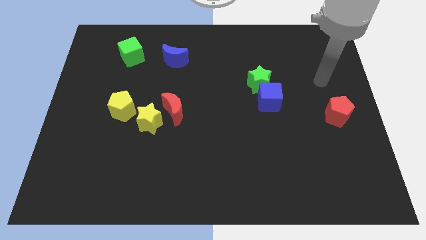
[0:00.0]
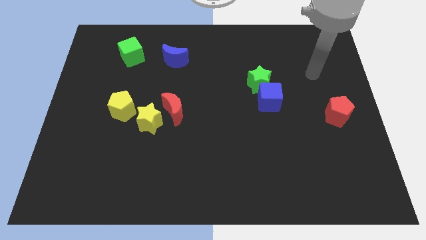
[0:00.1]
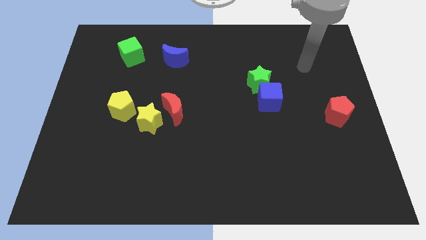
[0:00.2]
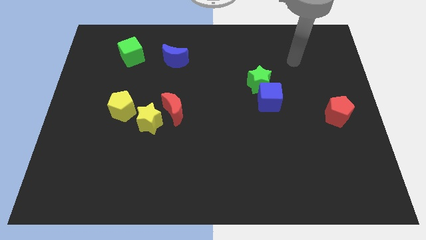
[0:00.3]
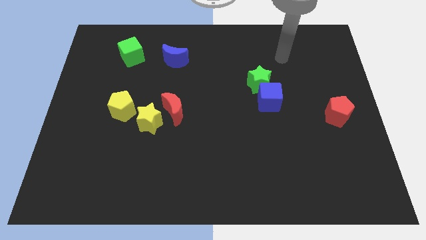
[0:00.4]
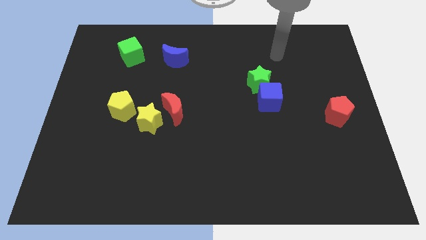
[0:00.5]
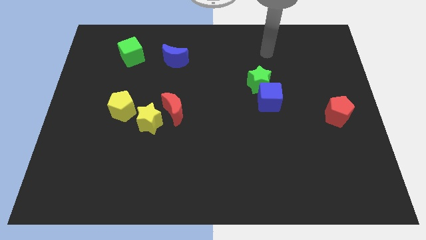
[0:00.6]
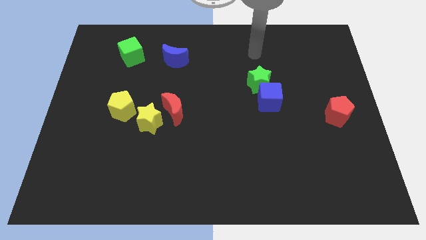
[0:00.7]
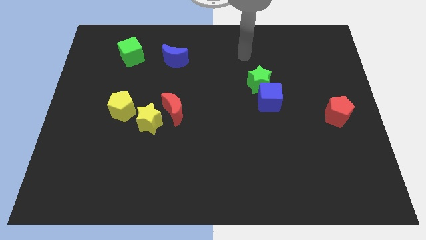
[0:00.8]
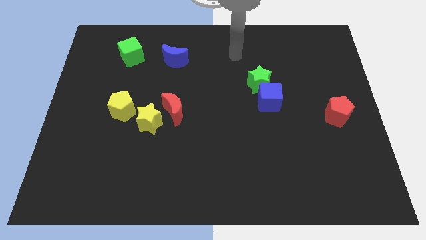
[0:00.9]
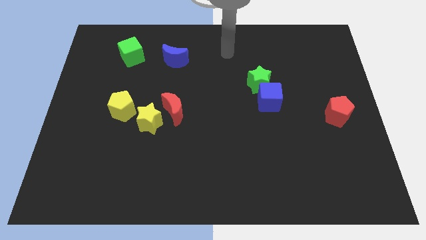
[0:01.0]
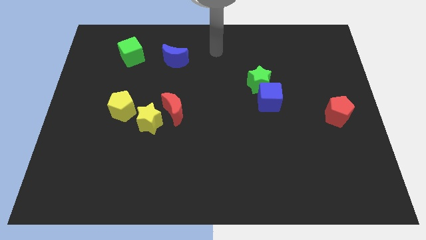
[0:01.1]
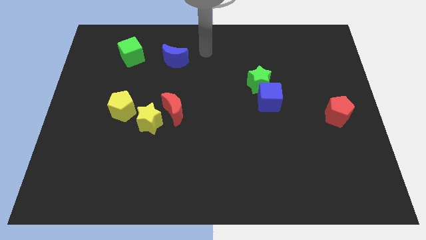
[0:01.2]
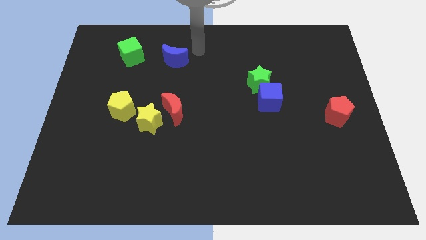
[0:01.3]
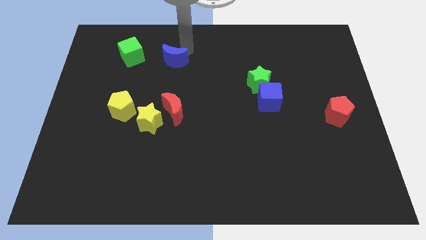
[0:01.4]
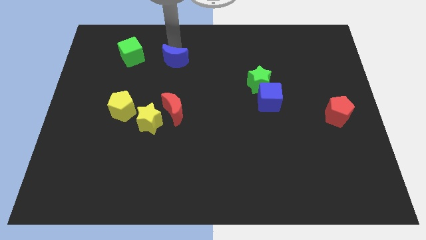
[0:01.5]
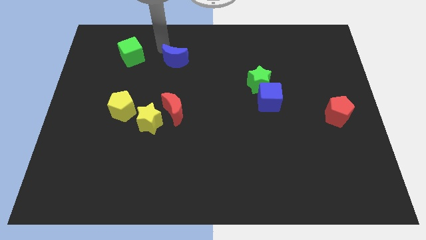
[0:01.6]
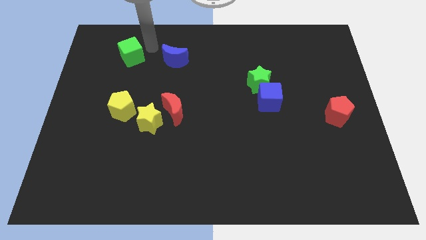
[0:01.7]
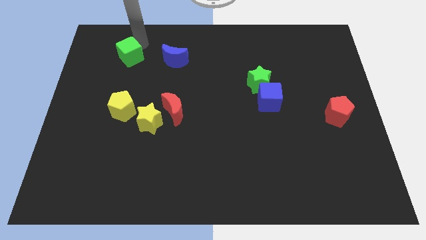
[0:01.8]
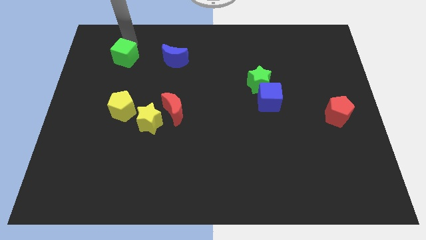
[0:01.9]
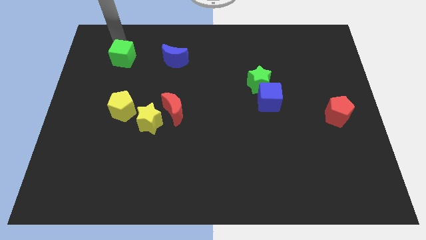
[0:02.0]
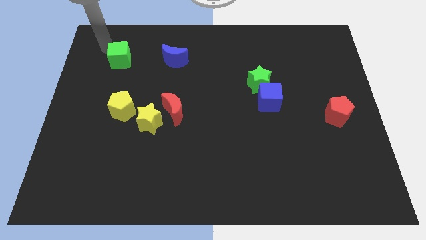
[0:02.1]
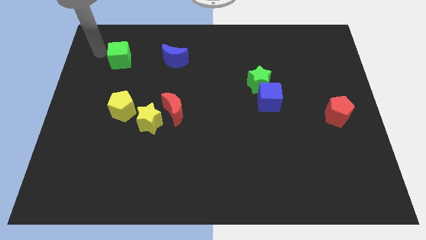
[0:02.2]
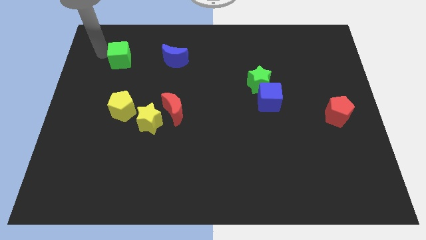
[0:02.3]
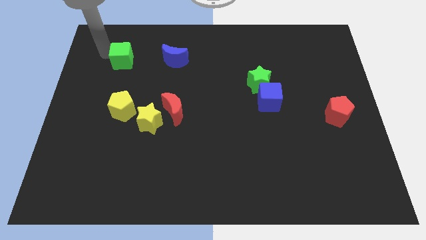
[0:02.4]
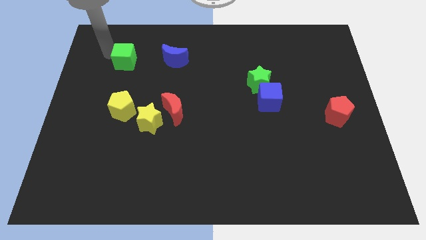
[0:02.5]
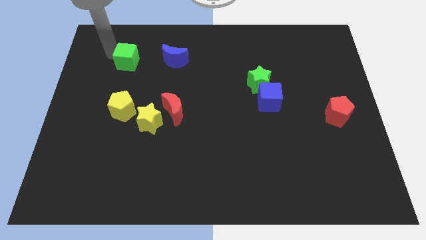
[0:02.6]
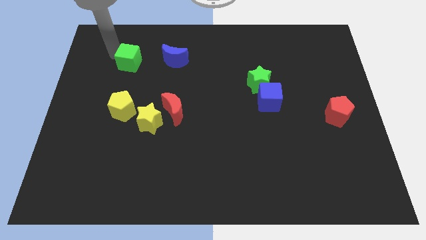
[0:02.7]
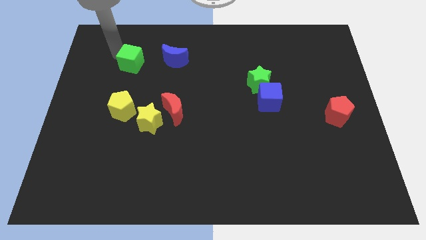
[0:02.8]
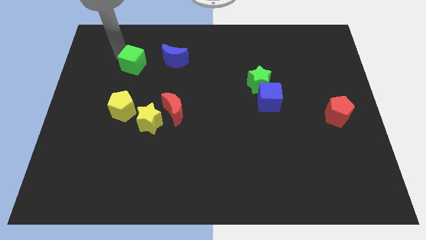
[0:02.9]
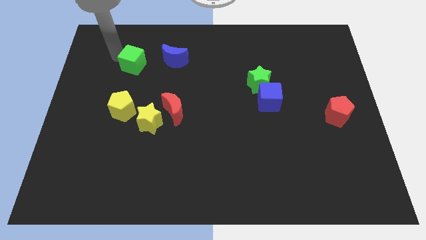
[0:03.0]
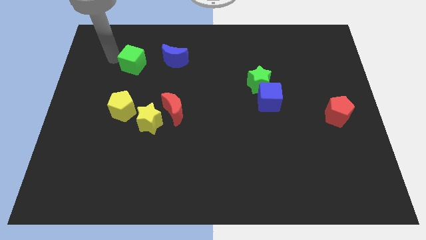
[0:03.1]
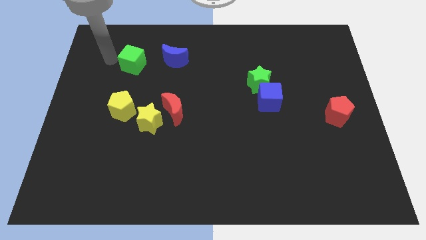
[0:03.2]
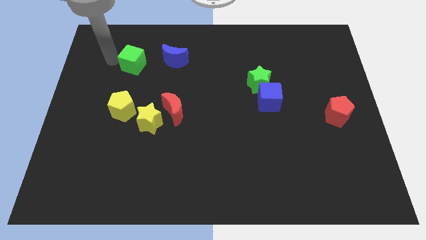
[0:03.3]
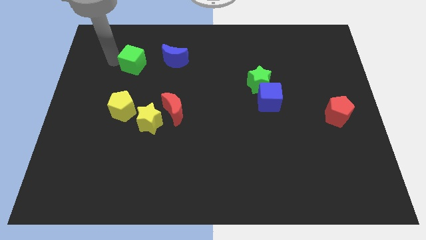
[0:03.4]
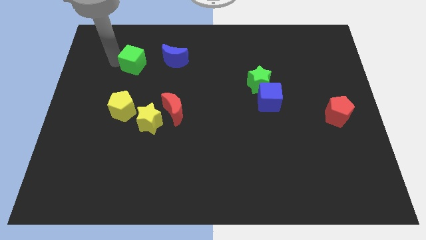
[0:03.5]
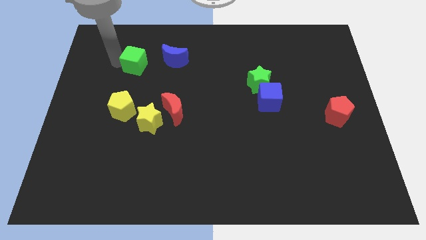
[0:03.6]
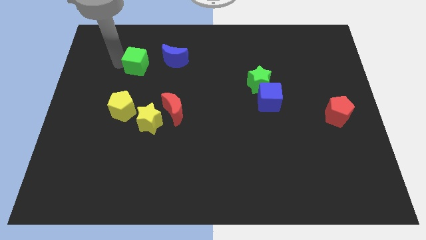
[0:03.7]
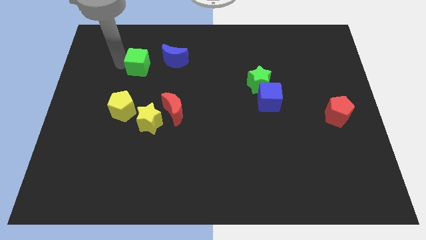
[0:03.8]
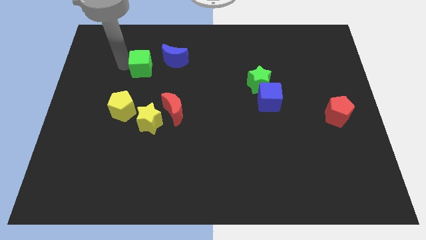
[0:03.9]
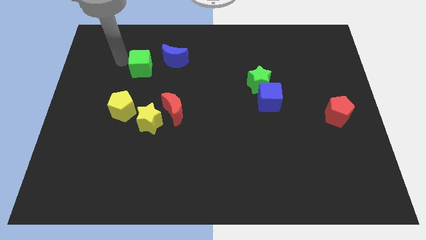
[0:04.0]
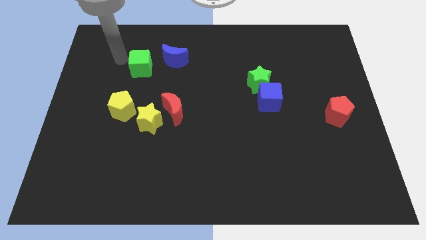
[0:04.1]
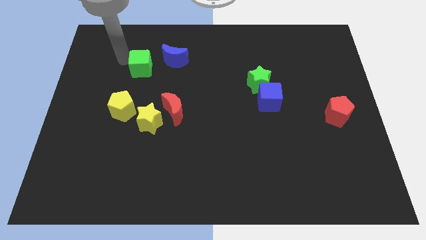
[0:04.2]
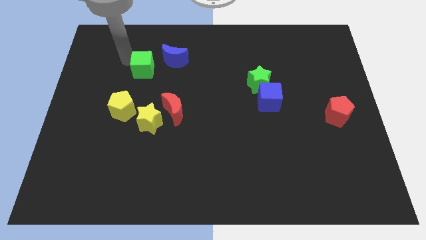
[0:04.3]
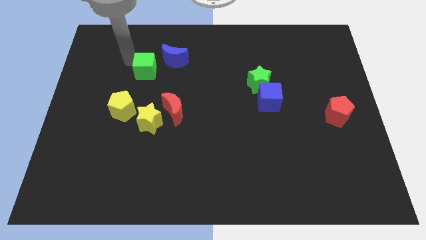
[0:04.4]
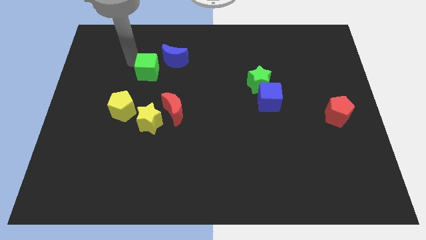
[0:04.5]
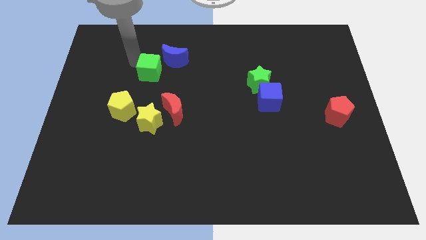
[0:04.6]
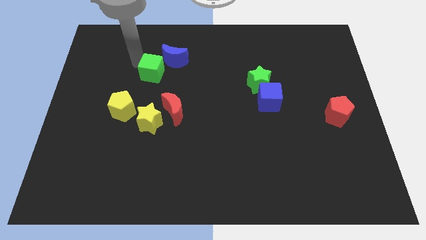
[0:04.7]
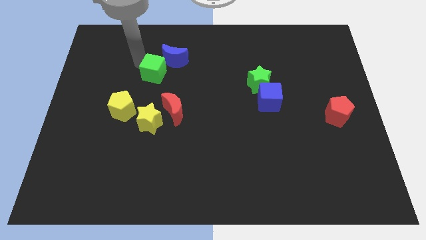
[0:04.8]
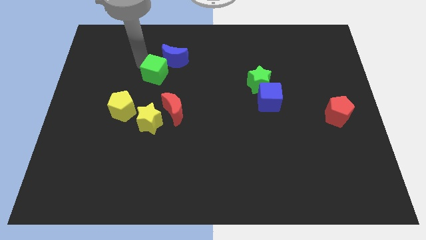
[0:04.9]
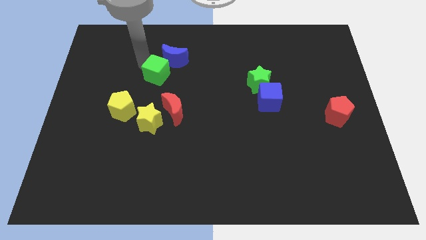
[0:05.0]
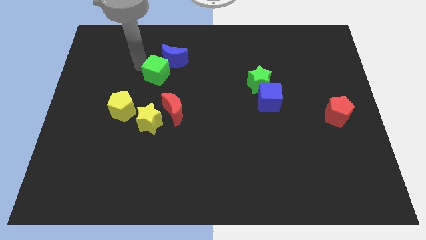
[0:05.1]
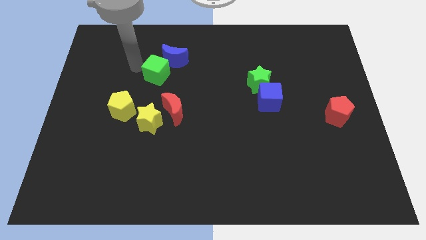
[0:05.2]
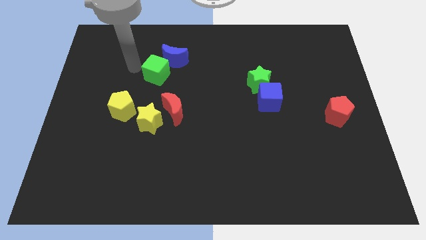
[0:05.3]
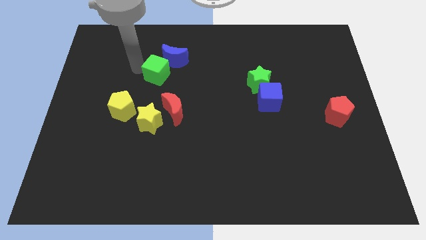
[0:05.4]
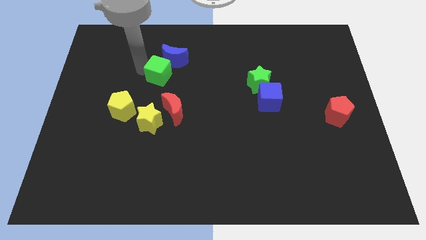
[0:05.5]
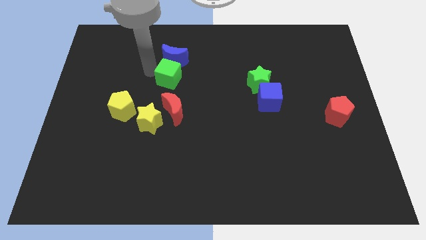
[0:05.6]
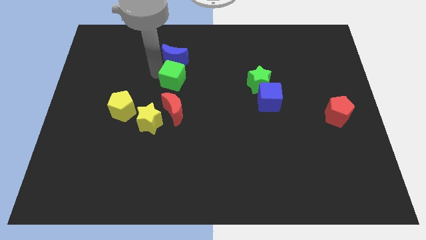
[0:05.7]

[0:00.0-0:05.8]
slide the green cube to the center of the board

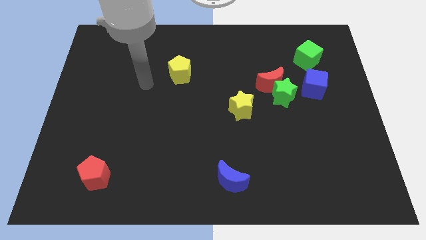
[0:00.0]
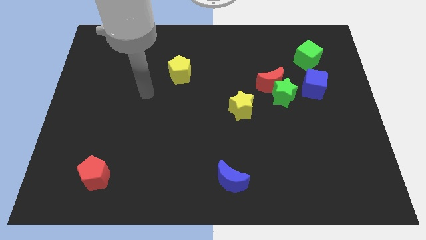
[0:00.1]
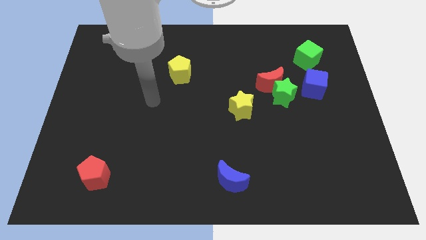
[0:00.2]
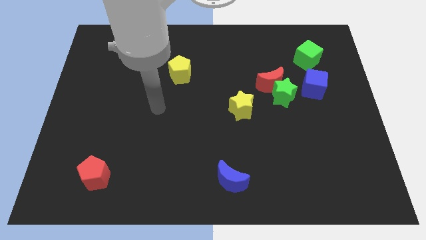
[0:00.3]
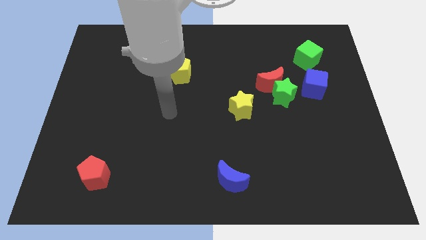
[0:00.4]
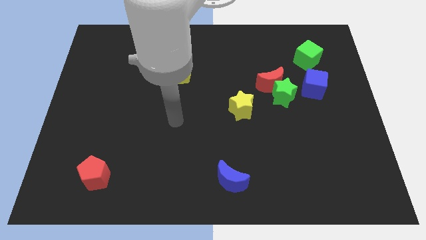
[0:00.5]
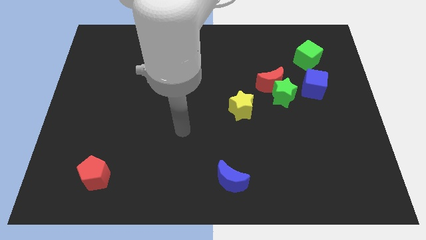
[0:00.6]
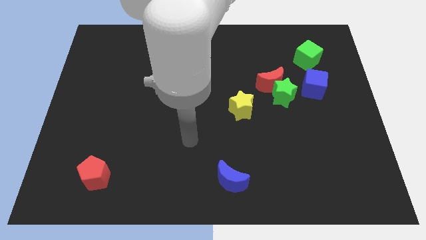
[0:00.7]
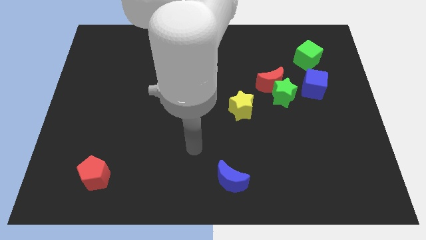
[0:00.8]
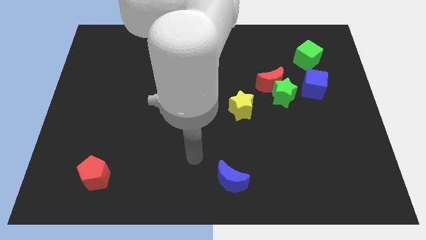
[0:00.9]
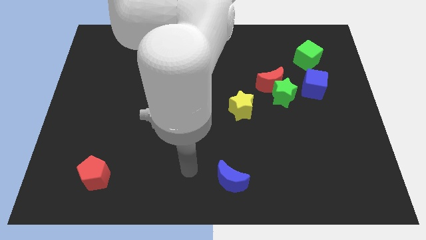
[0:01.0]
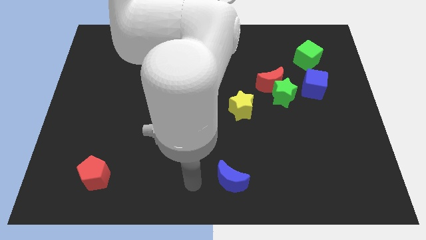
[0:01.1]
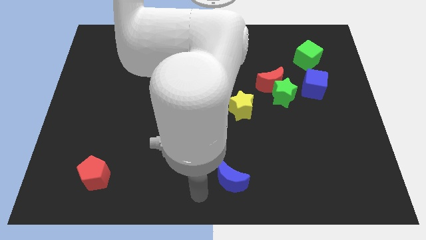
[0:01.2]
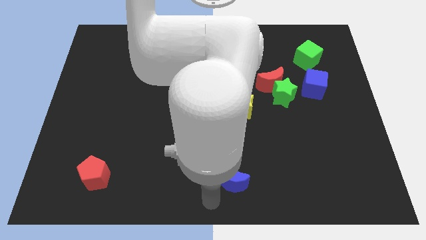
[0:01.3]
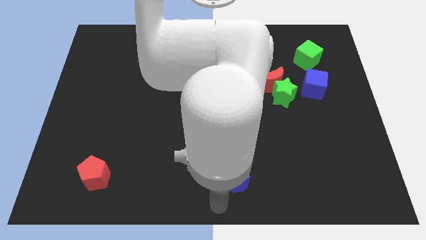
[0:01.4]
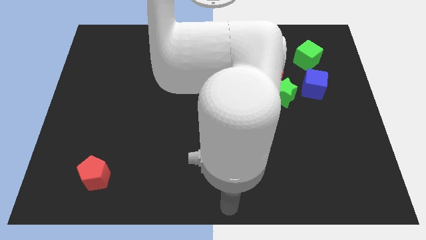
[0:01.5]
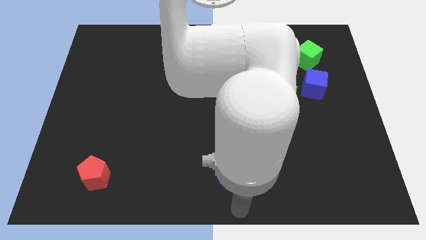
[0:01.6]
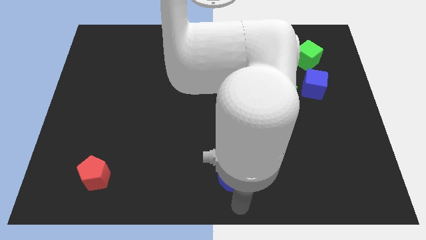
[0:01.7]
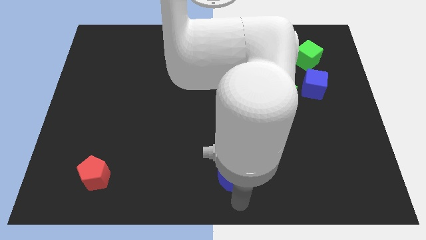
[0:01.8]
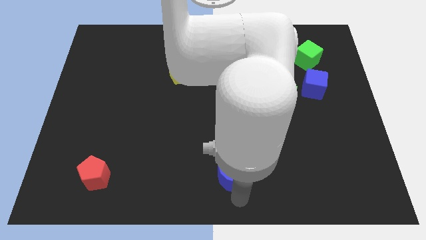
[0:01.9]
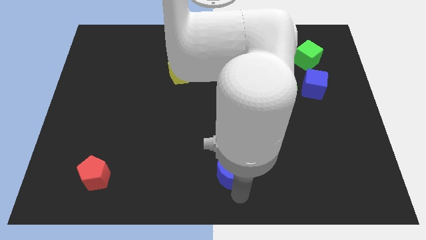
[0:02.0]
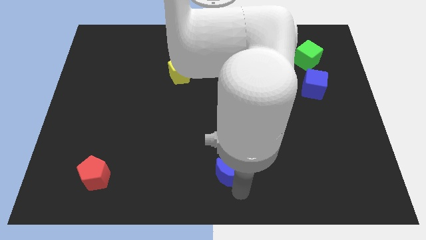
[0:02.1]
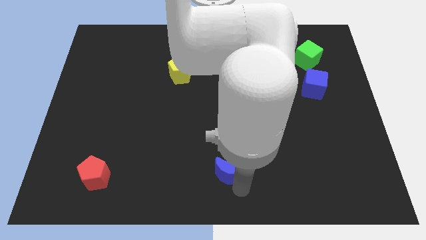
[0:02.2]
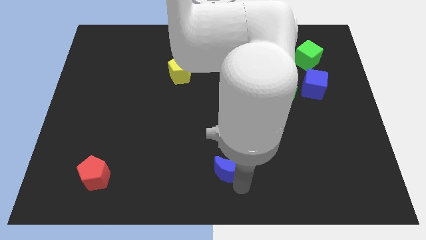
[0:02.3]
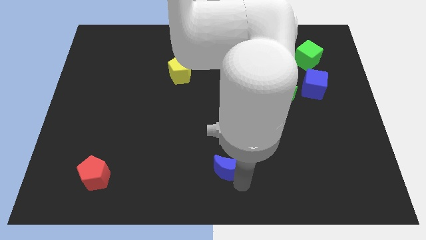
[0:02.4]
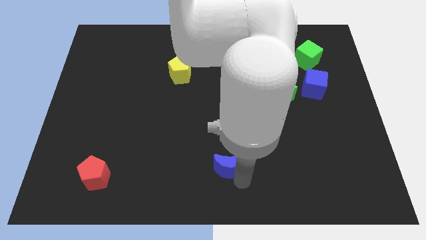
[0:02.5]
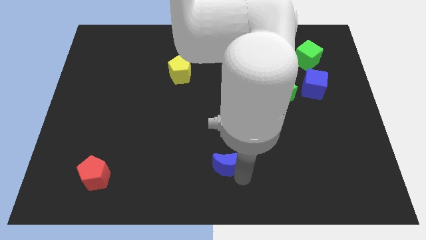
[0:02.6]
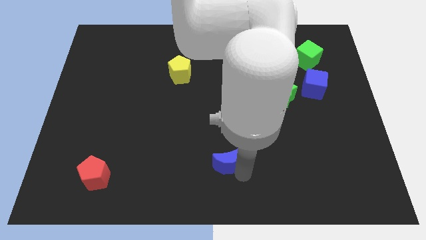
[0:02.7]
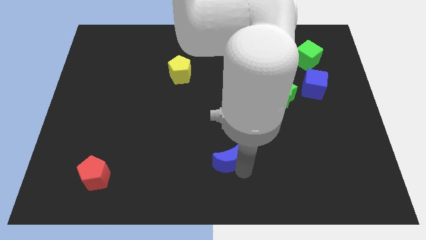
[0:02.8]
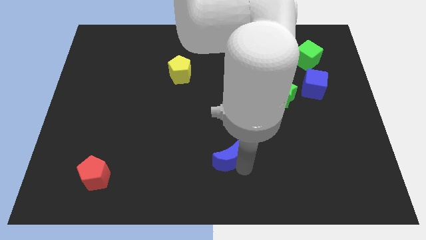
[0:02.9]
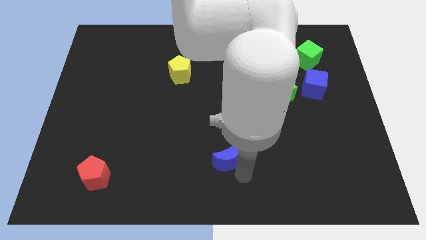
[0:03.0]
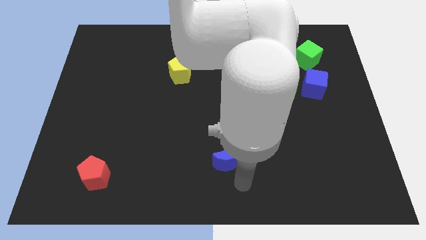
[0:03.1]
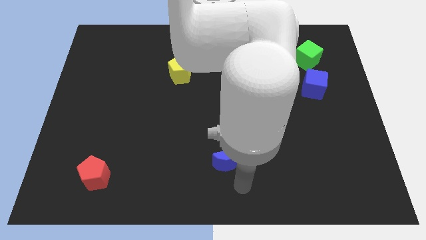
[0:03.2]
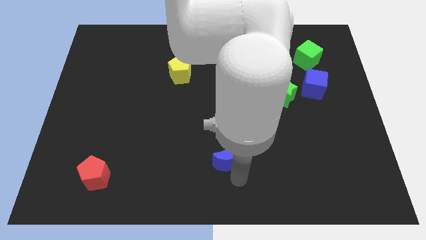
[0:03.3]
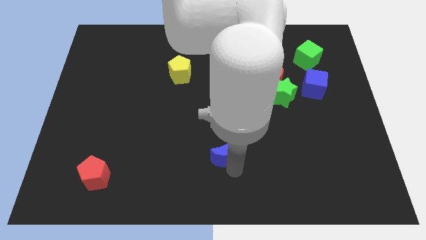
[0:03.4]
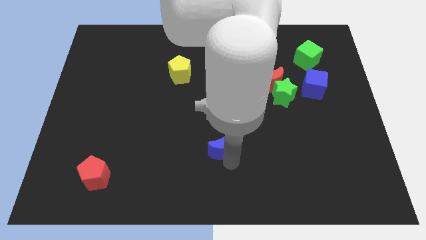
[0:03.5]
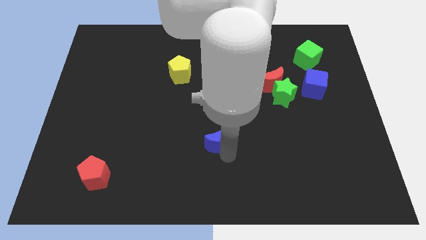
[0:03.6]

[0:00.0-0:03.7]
move the blue moon to the center of the board
